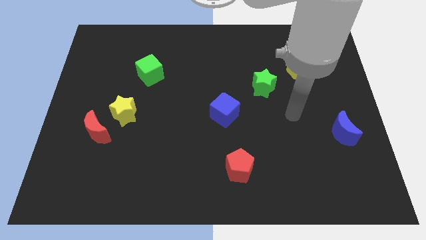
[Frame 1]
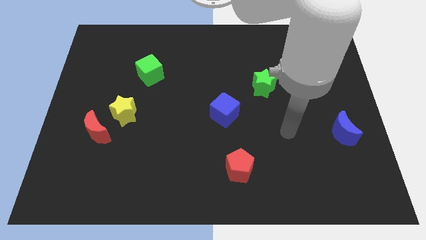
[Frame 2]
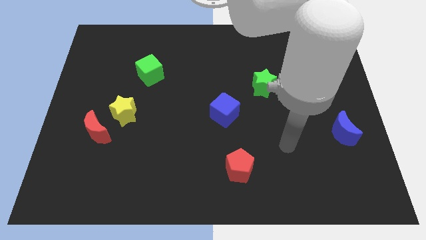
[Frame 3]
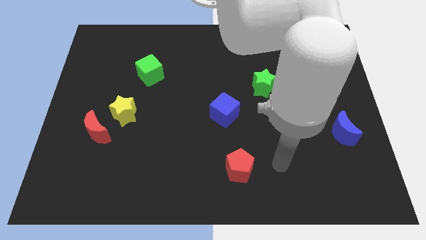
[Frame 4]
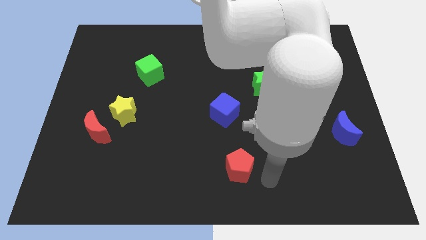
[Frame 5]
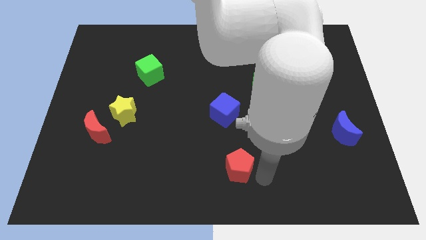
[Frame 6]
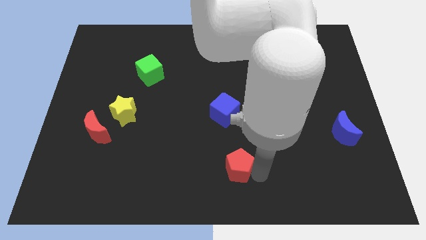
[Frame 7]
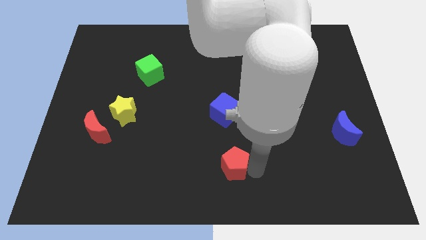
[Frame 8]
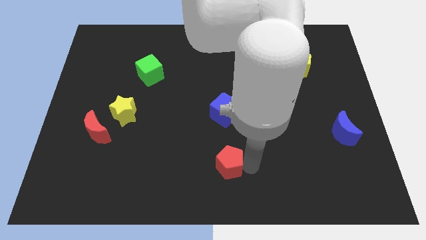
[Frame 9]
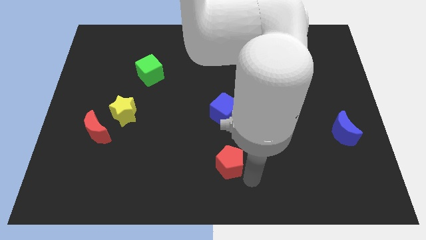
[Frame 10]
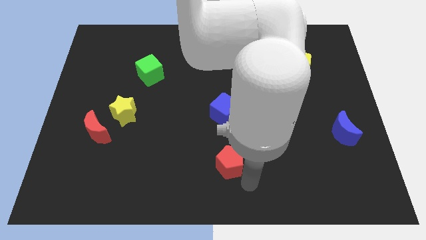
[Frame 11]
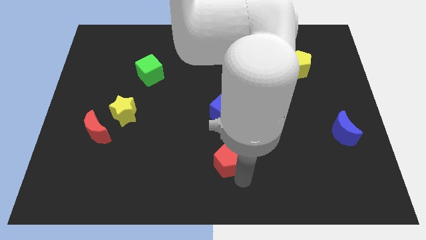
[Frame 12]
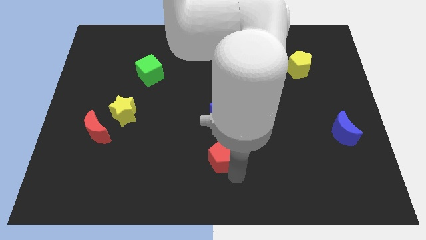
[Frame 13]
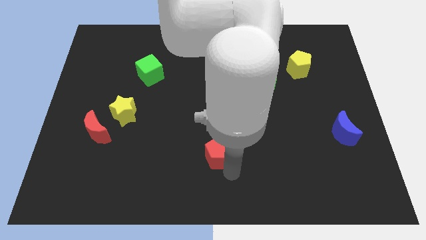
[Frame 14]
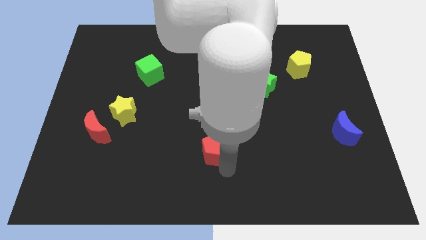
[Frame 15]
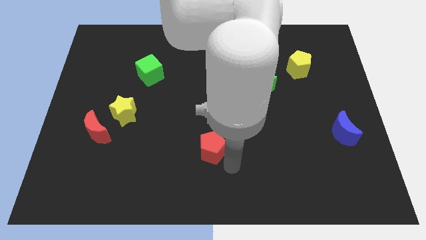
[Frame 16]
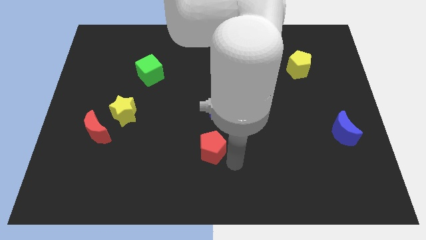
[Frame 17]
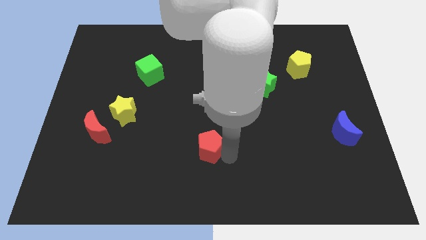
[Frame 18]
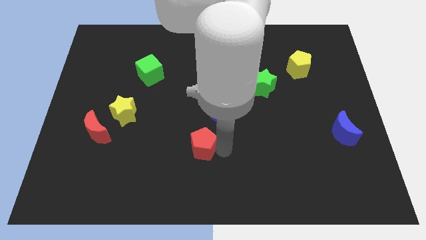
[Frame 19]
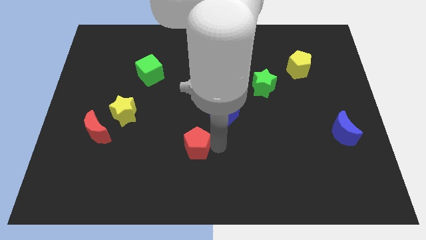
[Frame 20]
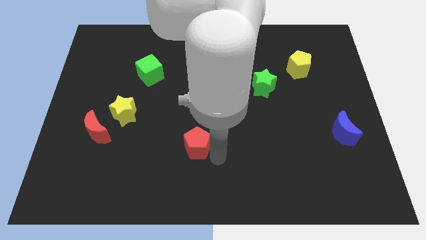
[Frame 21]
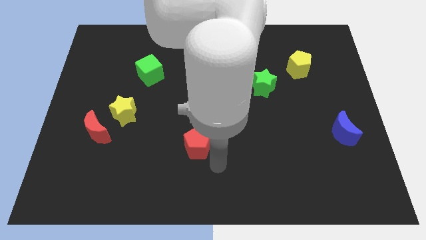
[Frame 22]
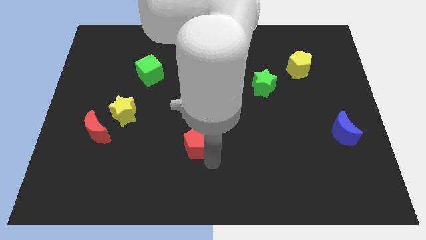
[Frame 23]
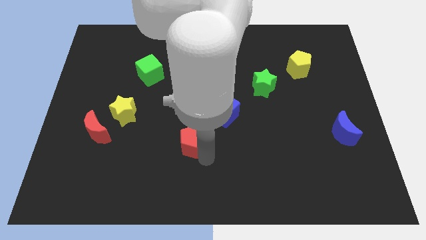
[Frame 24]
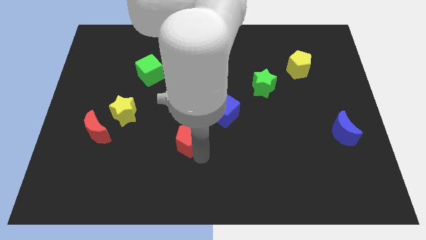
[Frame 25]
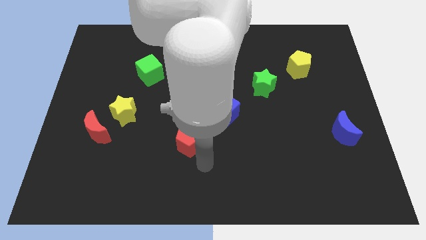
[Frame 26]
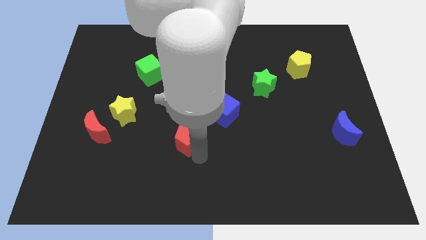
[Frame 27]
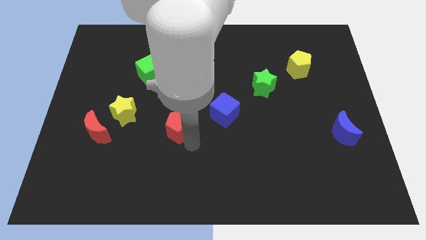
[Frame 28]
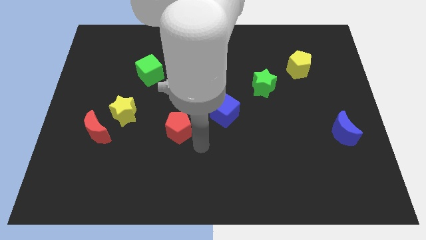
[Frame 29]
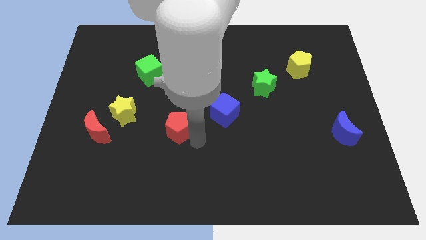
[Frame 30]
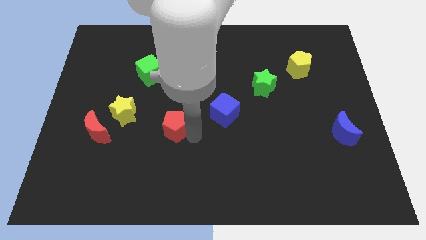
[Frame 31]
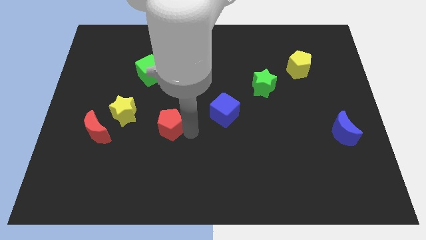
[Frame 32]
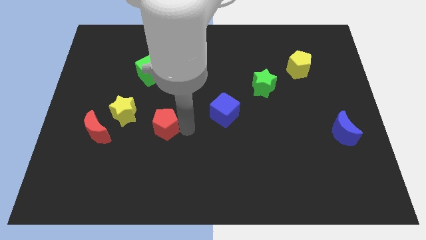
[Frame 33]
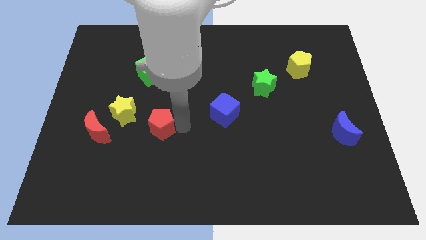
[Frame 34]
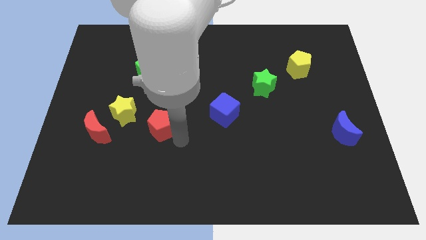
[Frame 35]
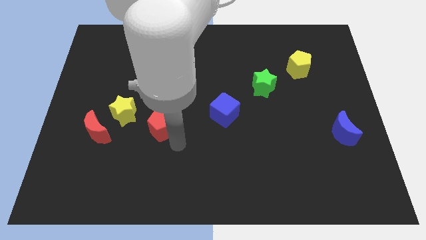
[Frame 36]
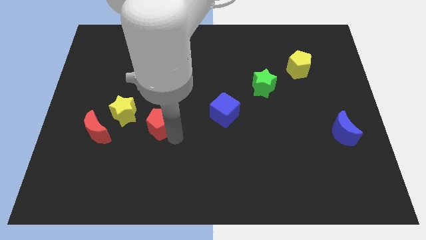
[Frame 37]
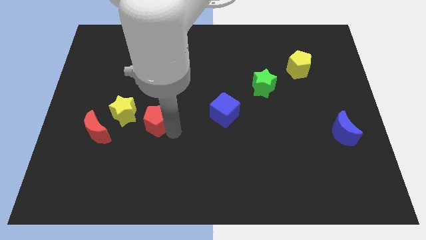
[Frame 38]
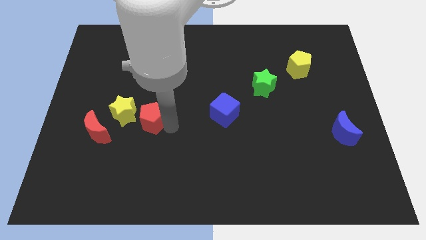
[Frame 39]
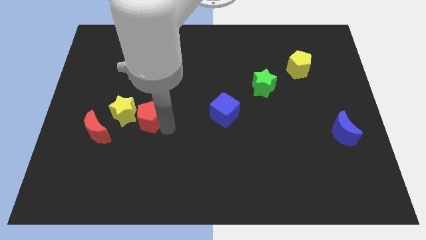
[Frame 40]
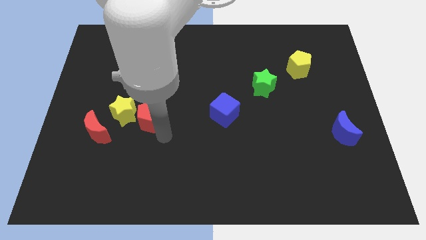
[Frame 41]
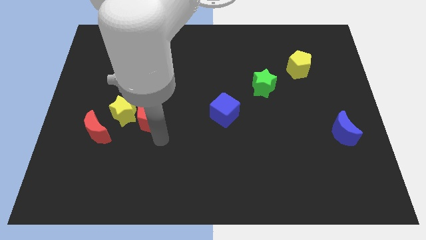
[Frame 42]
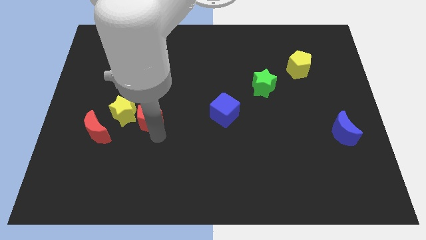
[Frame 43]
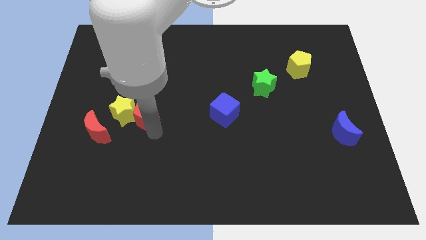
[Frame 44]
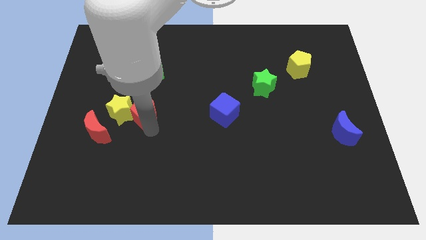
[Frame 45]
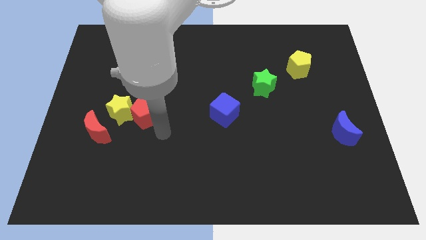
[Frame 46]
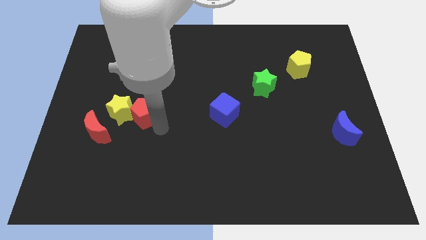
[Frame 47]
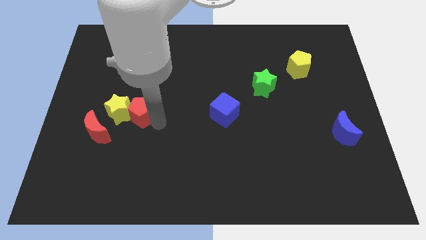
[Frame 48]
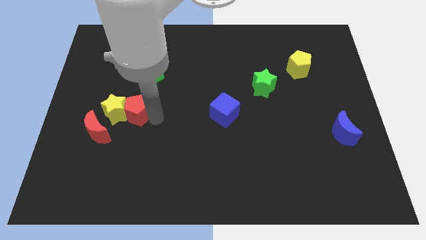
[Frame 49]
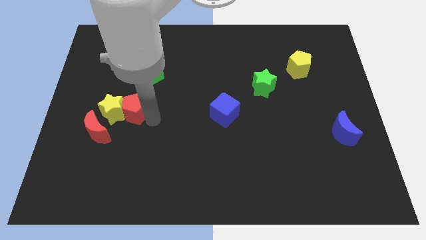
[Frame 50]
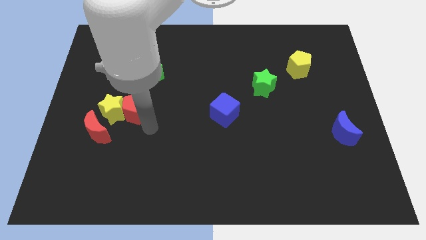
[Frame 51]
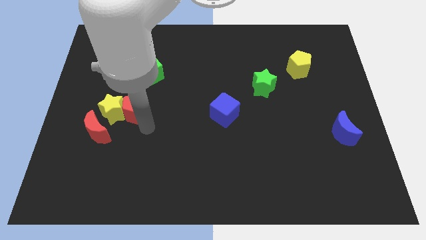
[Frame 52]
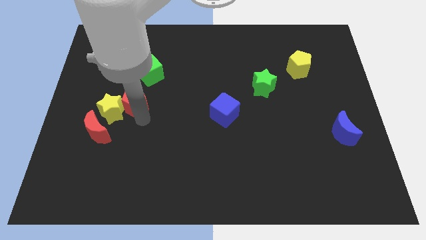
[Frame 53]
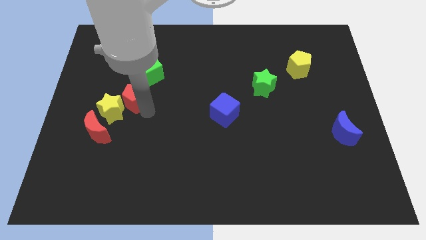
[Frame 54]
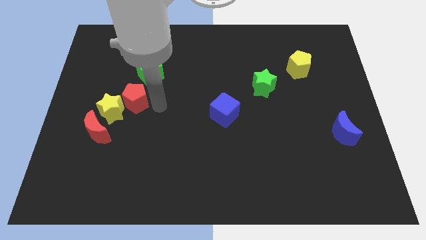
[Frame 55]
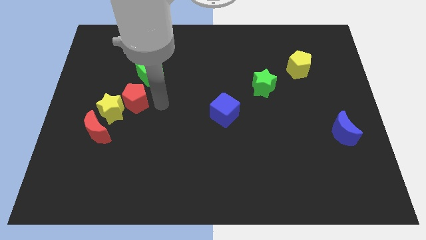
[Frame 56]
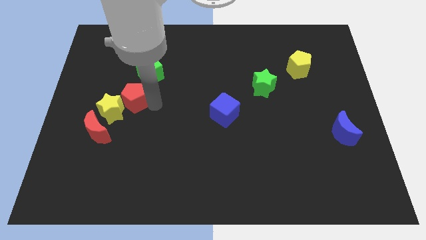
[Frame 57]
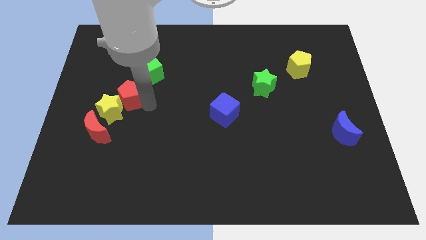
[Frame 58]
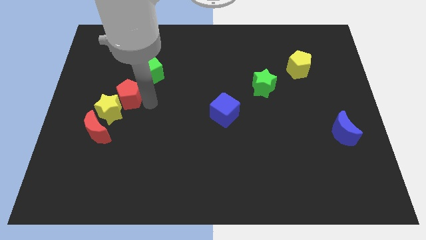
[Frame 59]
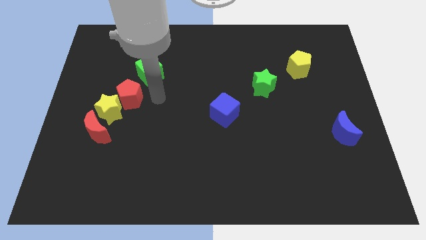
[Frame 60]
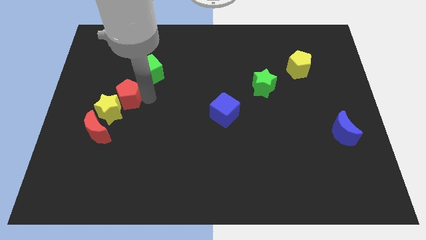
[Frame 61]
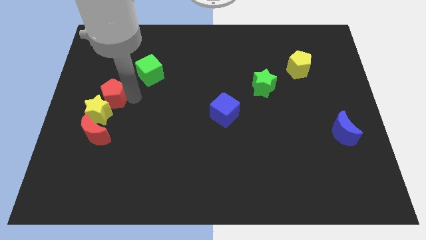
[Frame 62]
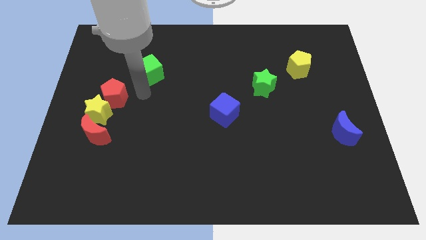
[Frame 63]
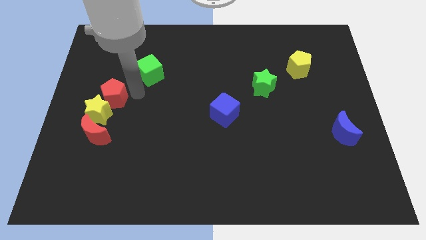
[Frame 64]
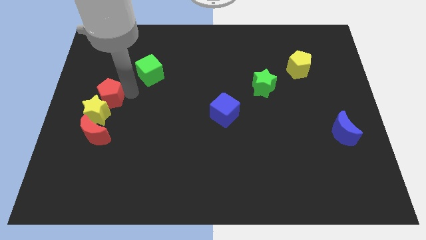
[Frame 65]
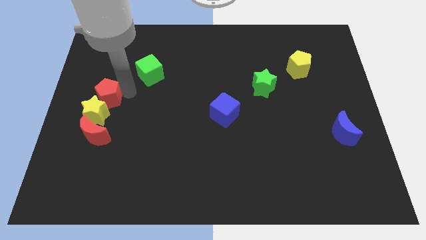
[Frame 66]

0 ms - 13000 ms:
put the red pentagon to the left side of the board

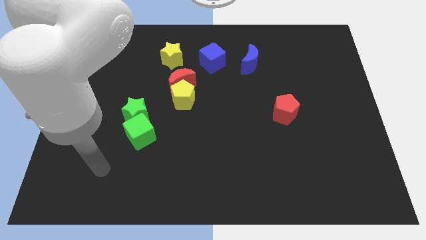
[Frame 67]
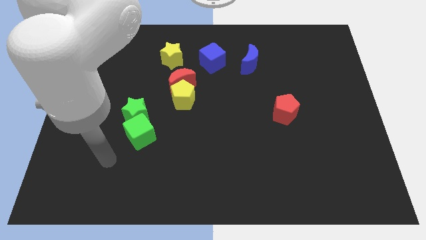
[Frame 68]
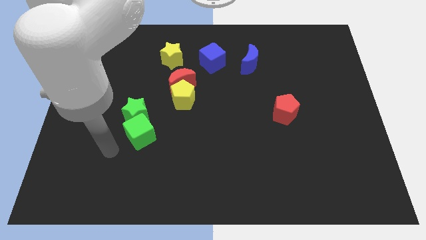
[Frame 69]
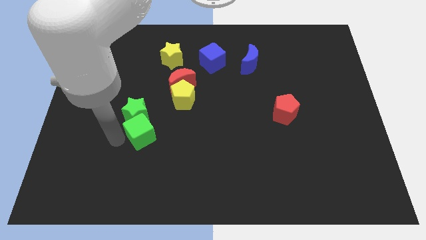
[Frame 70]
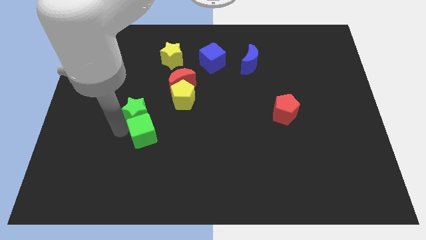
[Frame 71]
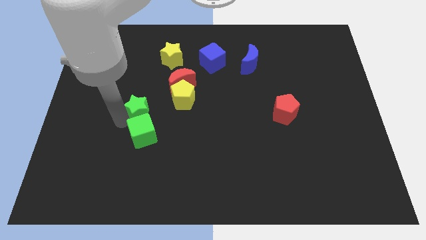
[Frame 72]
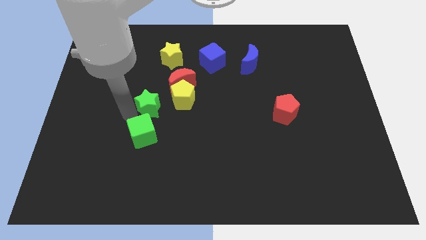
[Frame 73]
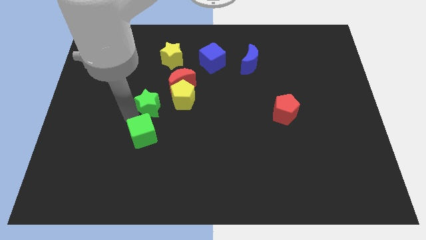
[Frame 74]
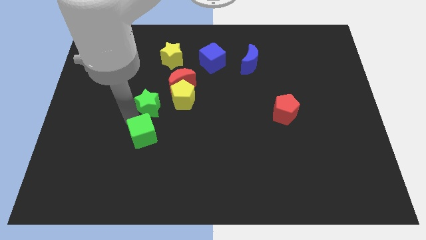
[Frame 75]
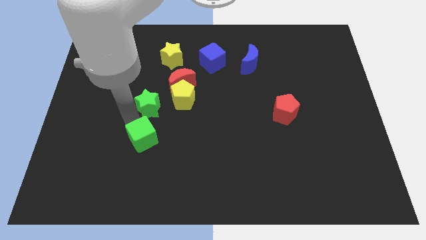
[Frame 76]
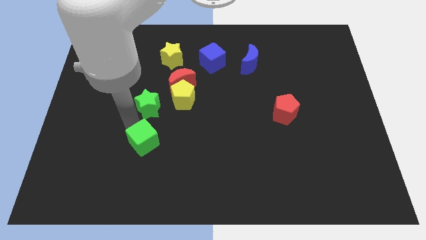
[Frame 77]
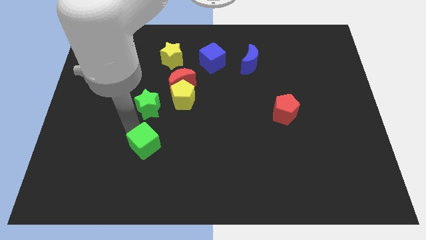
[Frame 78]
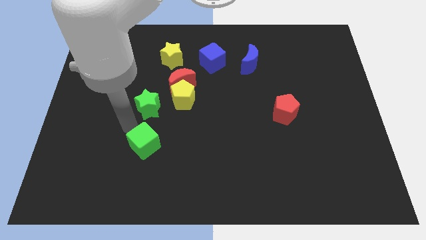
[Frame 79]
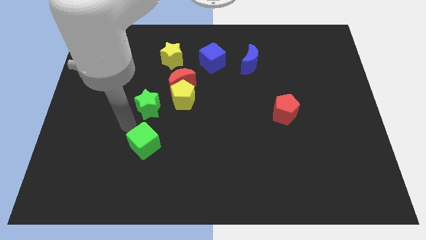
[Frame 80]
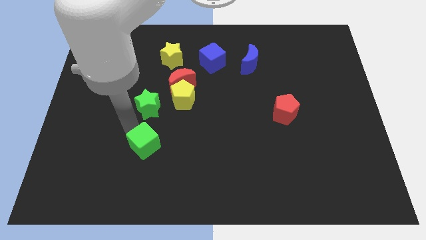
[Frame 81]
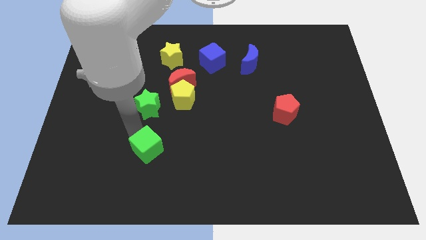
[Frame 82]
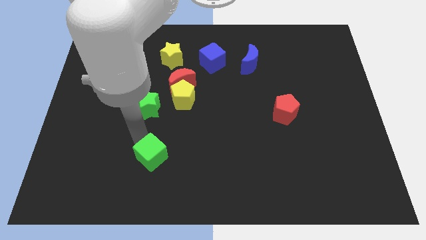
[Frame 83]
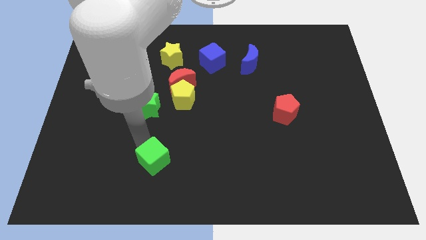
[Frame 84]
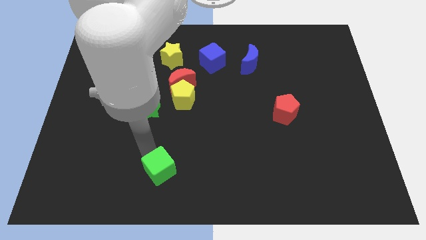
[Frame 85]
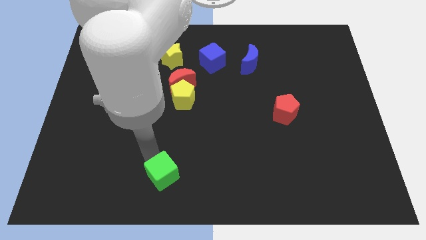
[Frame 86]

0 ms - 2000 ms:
slide the green cube to the bottom side
